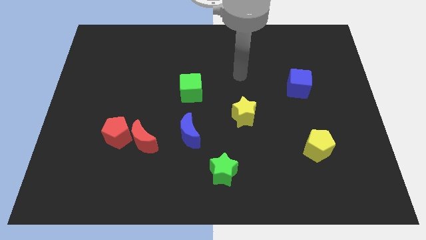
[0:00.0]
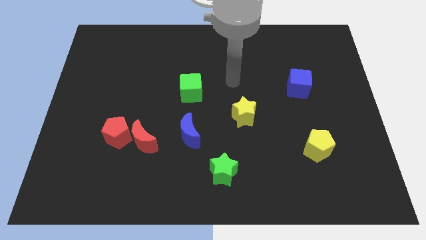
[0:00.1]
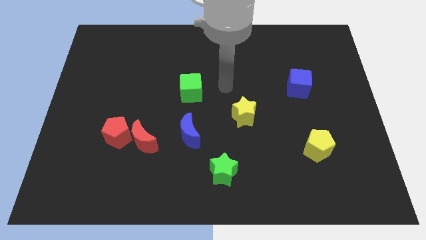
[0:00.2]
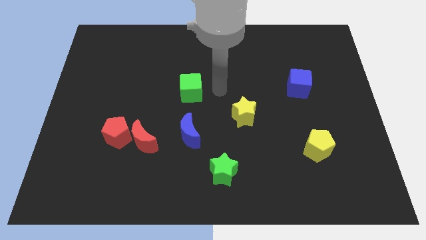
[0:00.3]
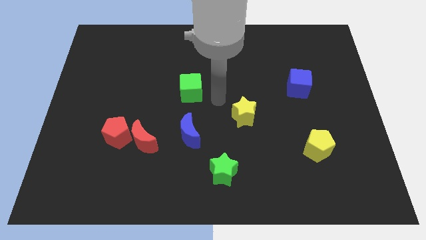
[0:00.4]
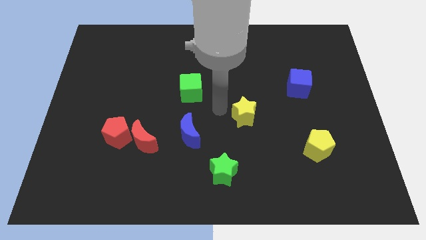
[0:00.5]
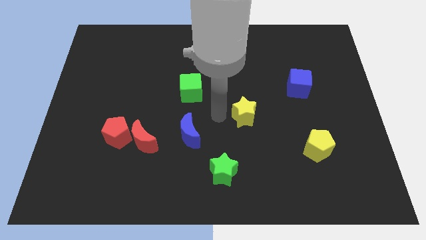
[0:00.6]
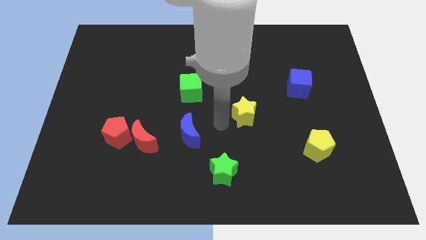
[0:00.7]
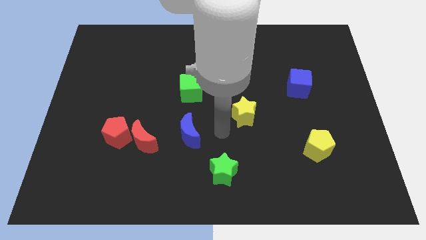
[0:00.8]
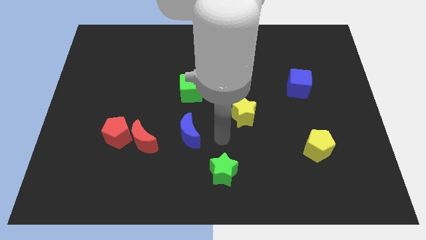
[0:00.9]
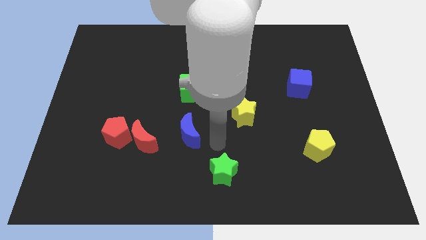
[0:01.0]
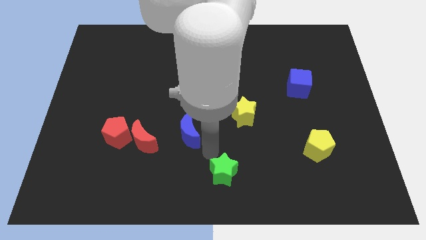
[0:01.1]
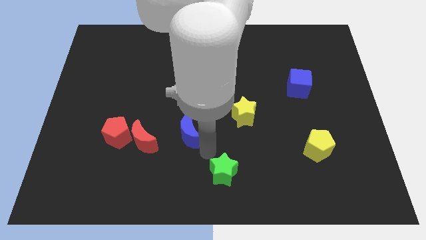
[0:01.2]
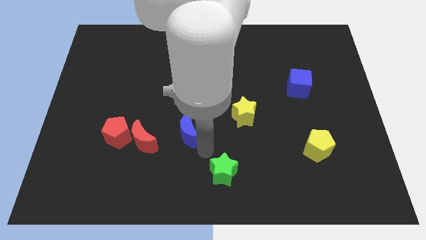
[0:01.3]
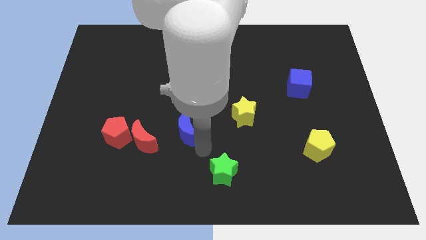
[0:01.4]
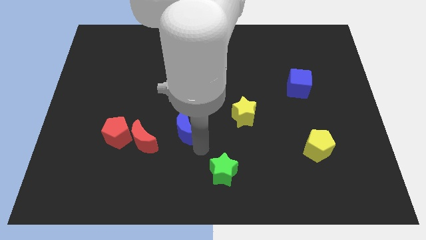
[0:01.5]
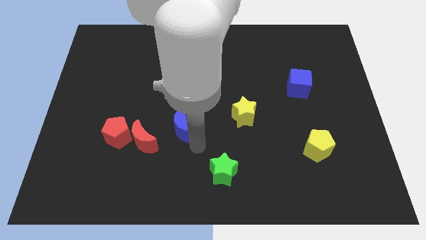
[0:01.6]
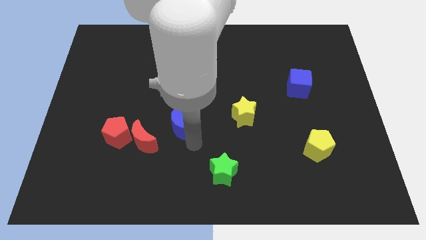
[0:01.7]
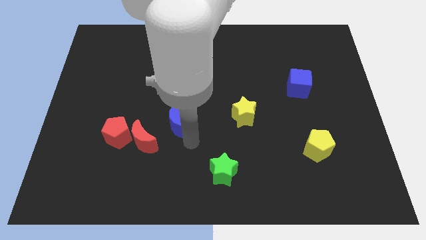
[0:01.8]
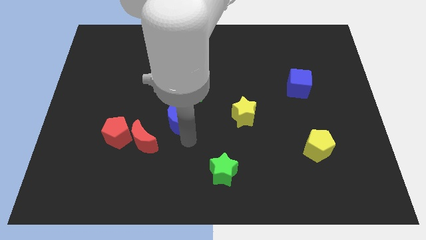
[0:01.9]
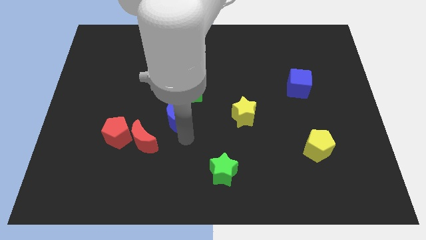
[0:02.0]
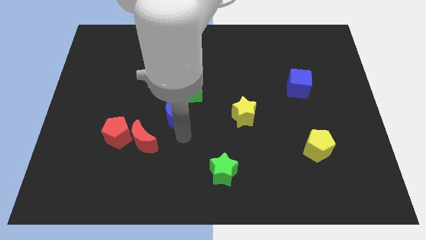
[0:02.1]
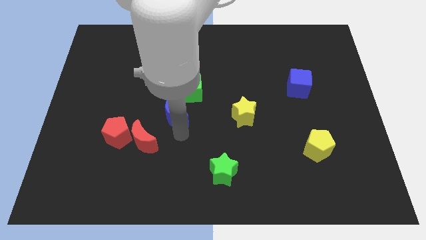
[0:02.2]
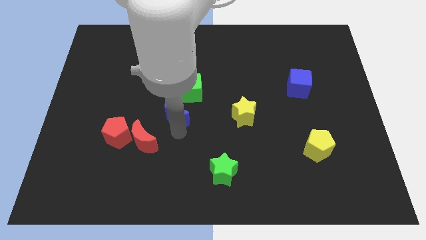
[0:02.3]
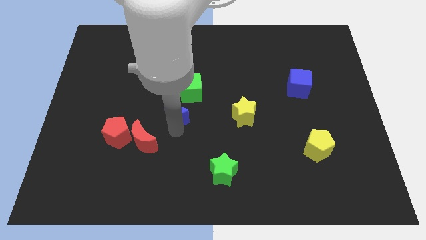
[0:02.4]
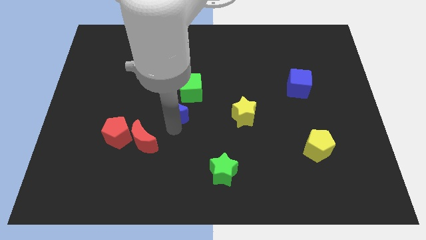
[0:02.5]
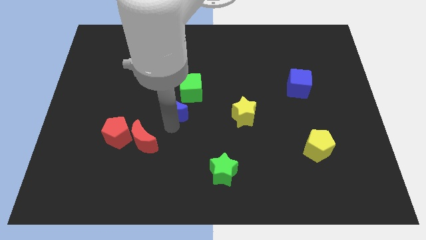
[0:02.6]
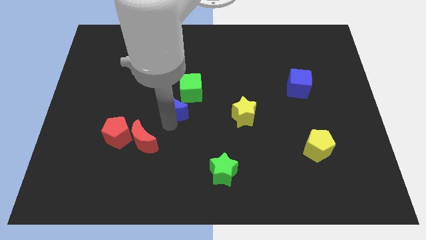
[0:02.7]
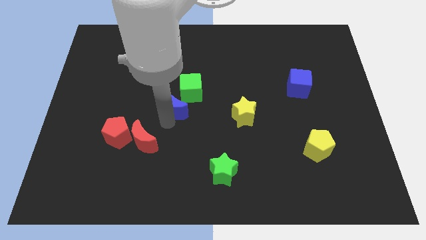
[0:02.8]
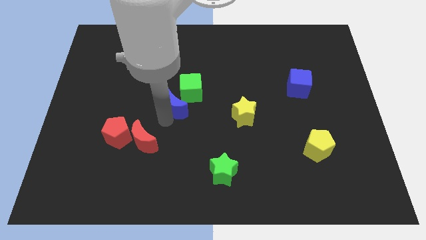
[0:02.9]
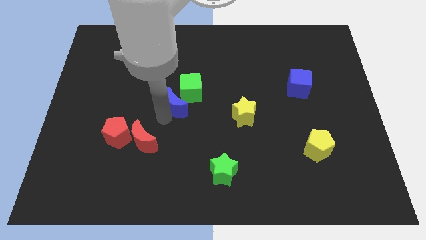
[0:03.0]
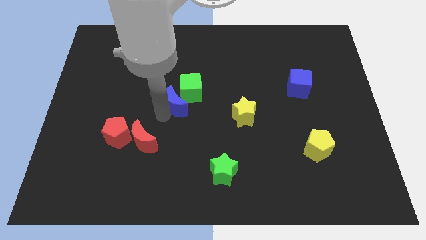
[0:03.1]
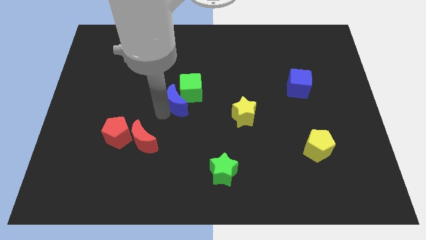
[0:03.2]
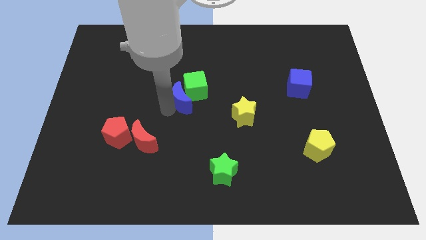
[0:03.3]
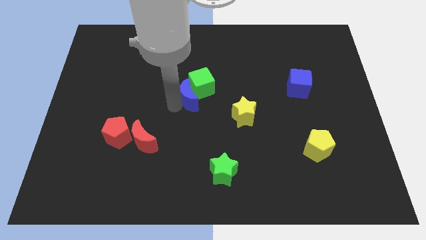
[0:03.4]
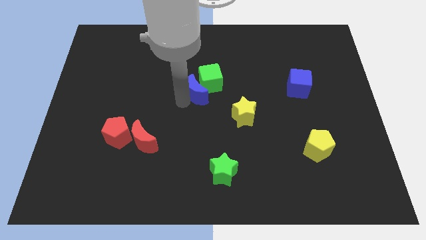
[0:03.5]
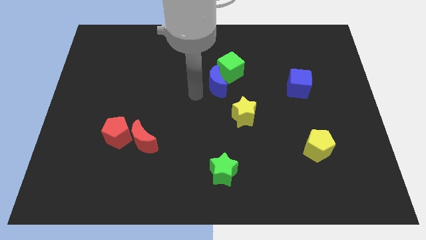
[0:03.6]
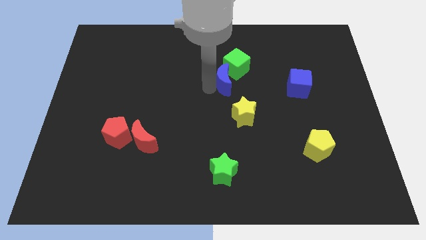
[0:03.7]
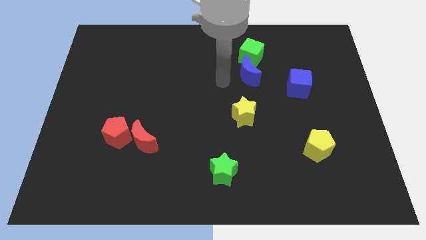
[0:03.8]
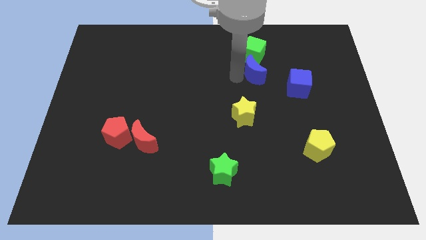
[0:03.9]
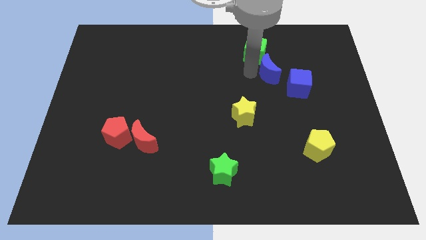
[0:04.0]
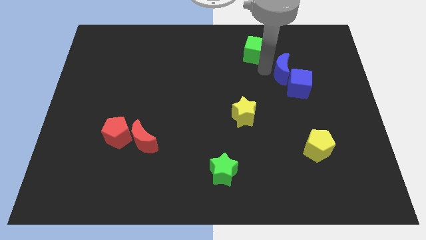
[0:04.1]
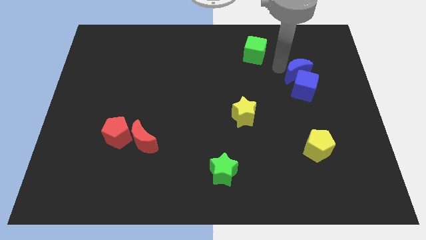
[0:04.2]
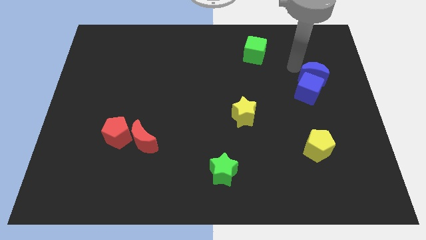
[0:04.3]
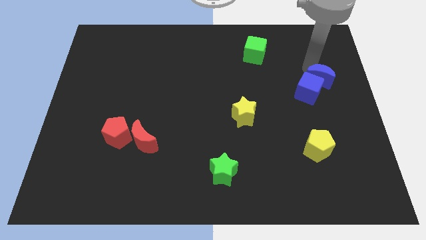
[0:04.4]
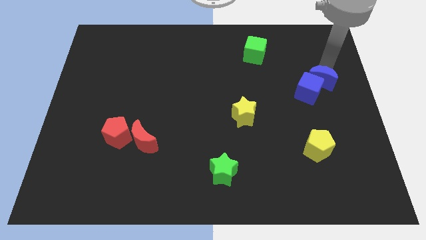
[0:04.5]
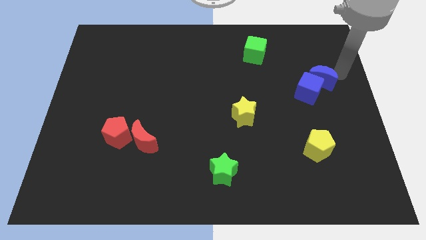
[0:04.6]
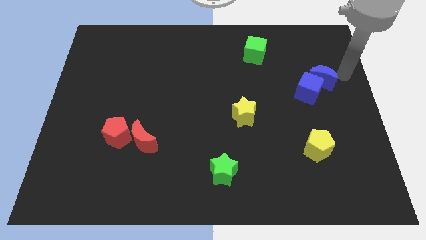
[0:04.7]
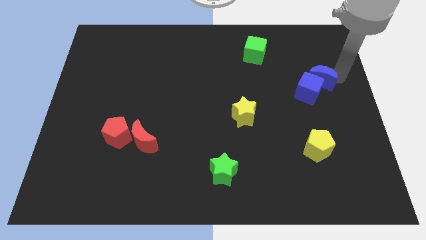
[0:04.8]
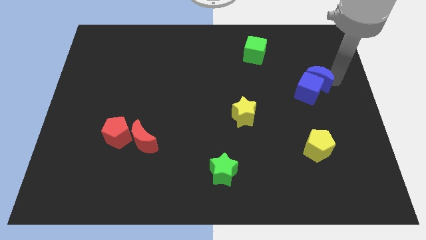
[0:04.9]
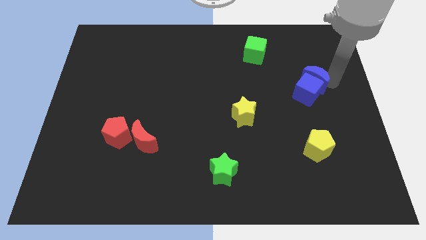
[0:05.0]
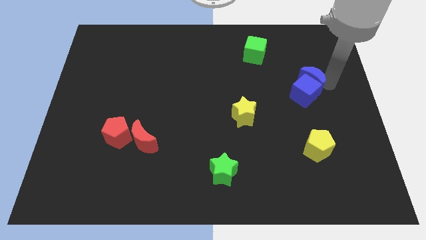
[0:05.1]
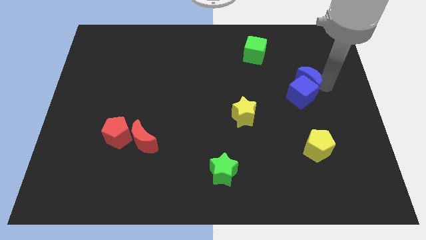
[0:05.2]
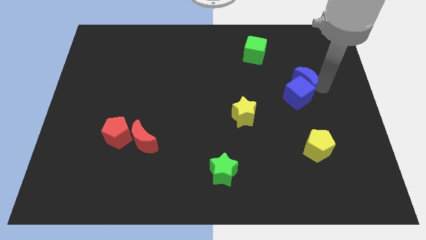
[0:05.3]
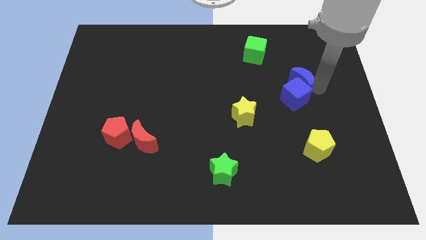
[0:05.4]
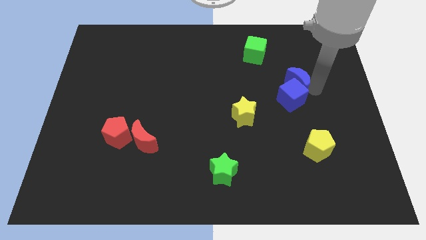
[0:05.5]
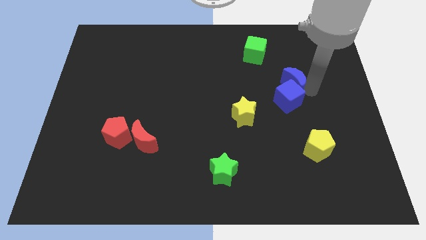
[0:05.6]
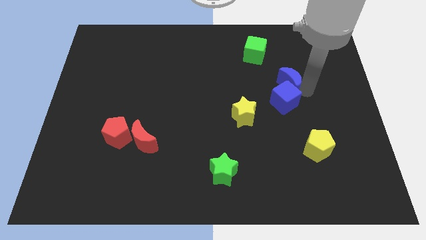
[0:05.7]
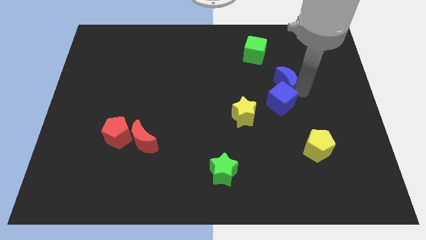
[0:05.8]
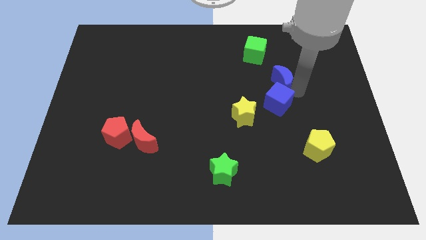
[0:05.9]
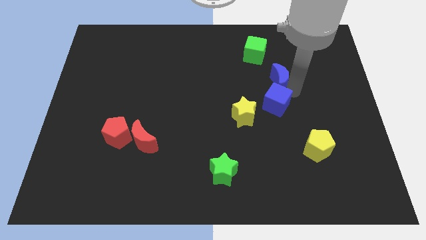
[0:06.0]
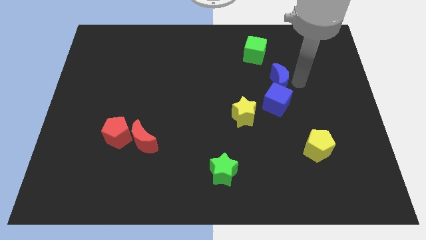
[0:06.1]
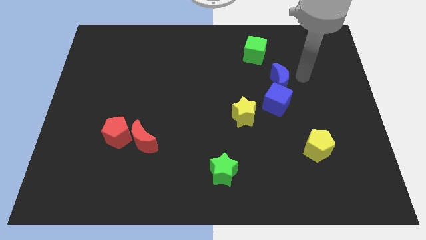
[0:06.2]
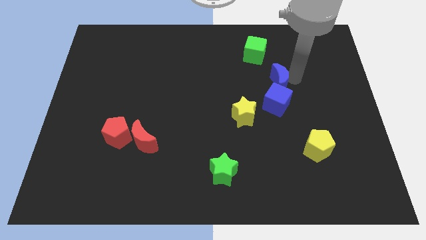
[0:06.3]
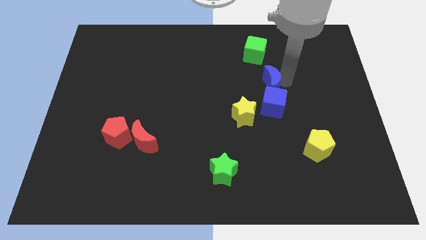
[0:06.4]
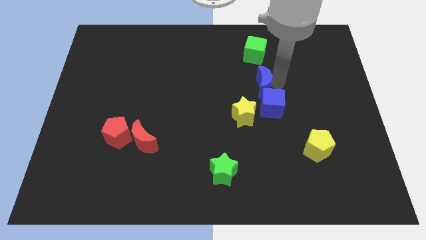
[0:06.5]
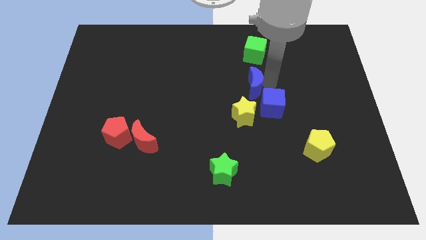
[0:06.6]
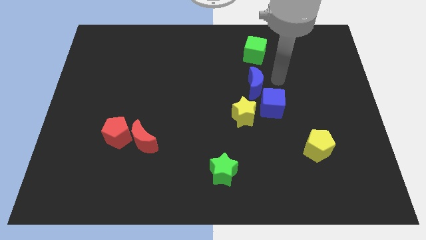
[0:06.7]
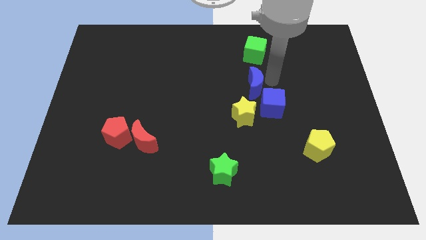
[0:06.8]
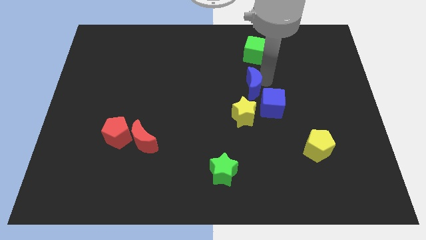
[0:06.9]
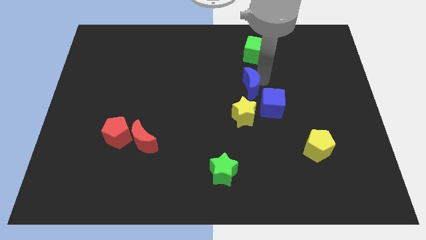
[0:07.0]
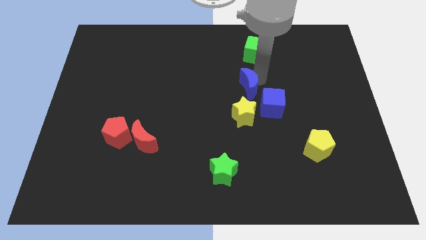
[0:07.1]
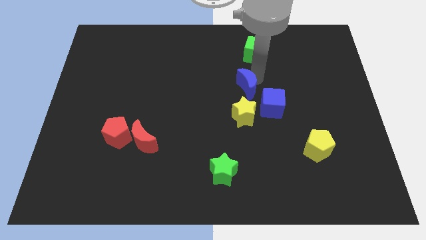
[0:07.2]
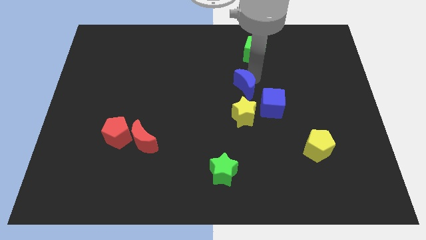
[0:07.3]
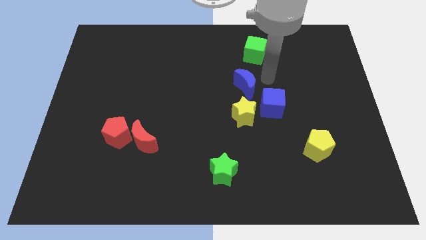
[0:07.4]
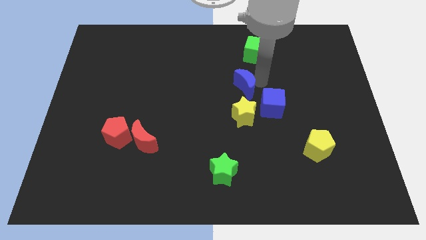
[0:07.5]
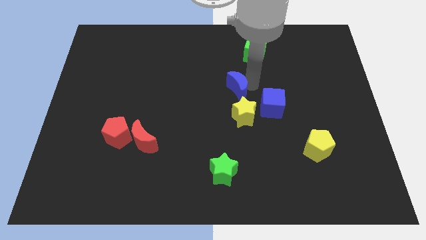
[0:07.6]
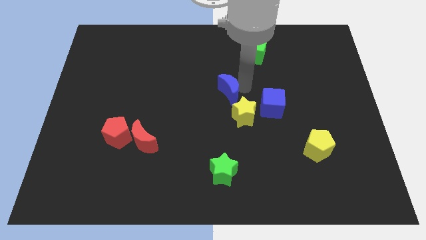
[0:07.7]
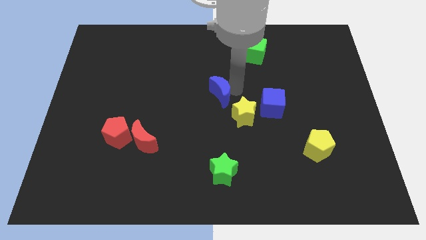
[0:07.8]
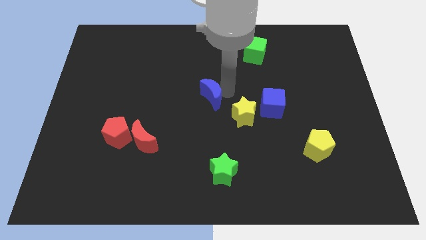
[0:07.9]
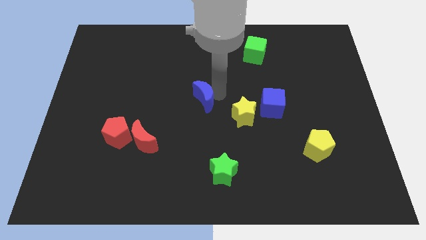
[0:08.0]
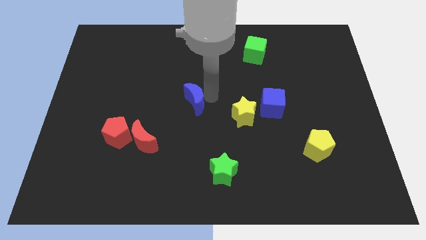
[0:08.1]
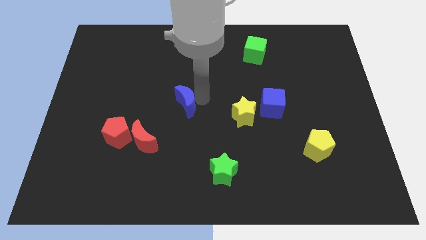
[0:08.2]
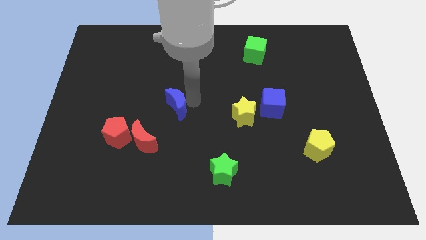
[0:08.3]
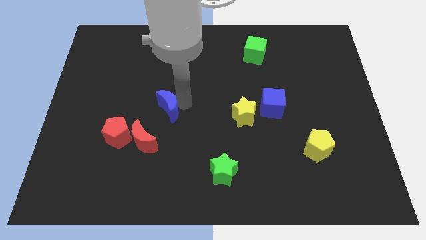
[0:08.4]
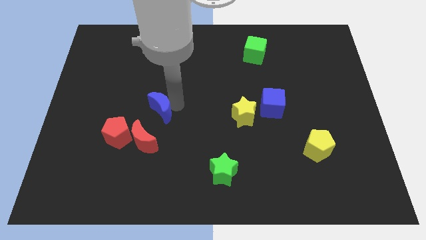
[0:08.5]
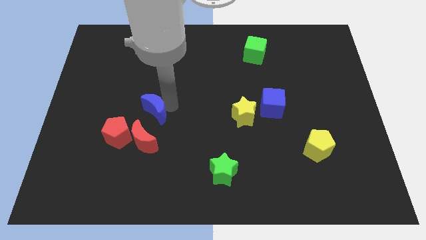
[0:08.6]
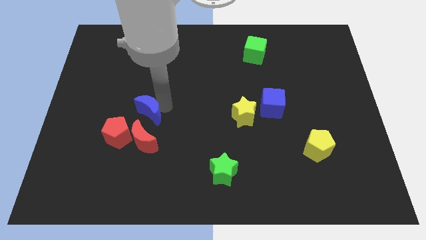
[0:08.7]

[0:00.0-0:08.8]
slightly push the blue moon to the left
